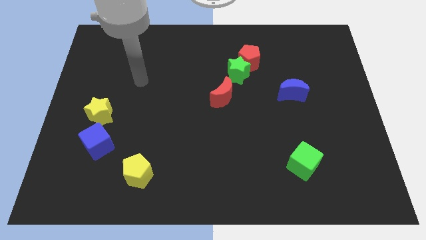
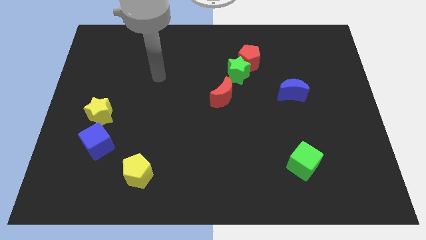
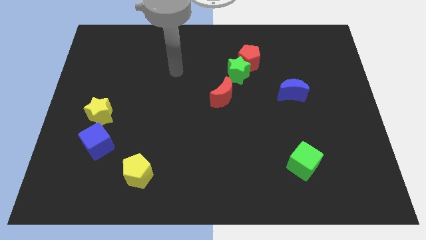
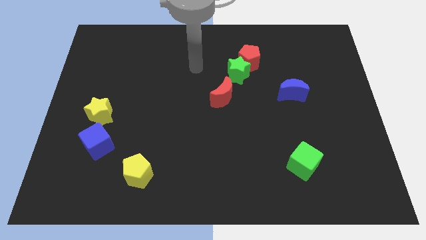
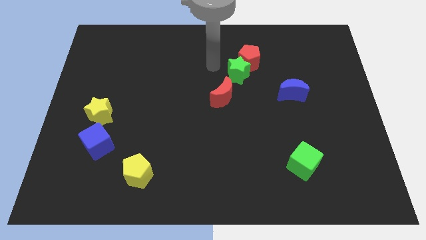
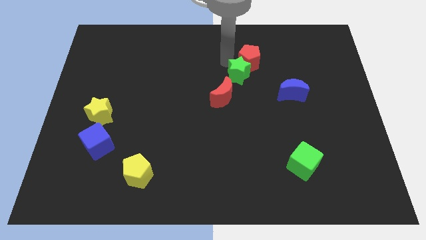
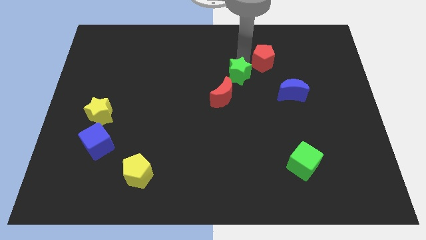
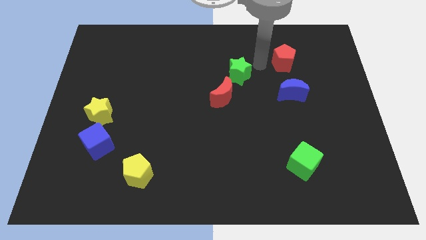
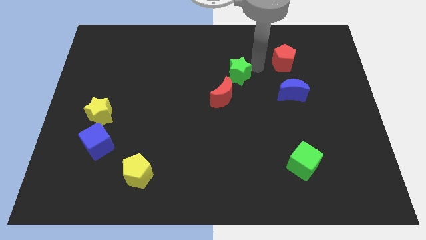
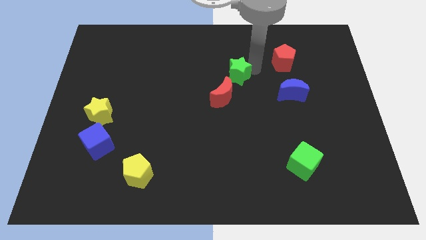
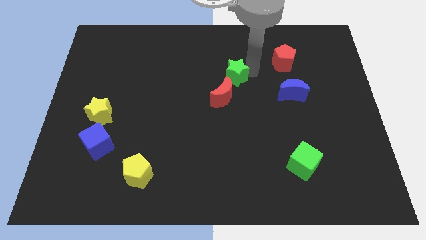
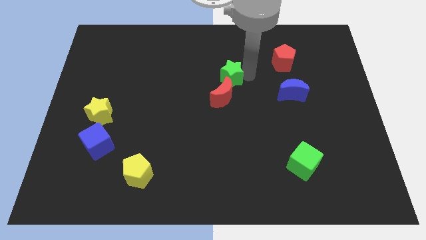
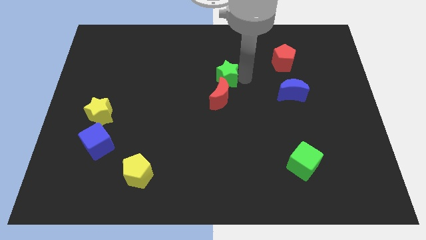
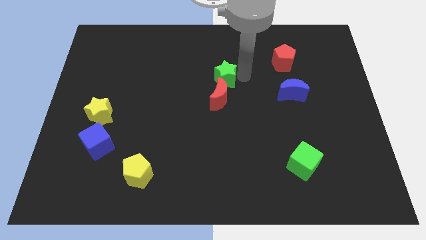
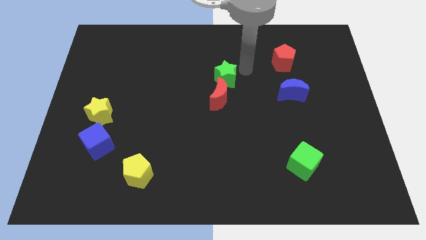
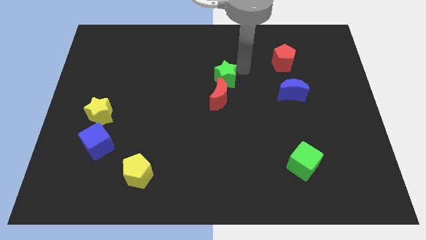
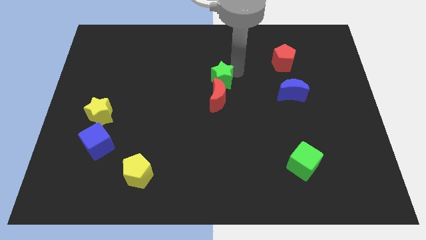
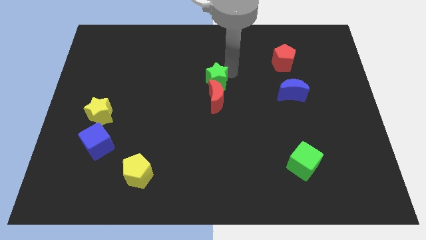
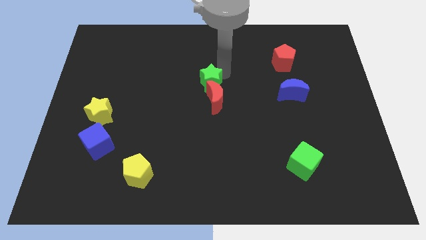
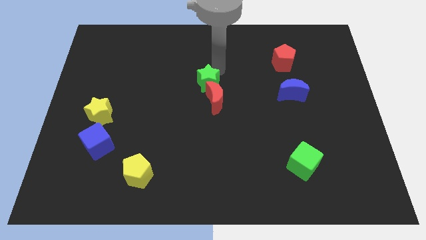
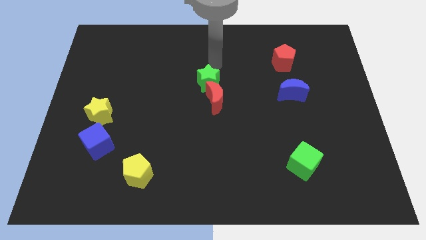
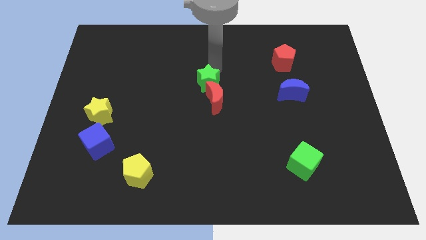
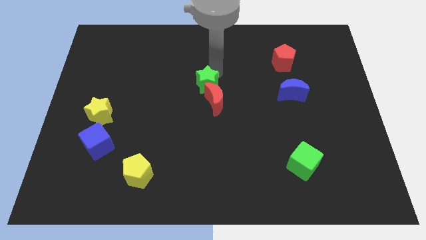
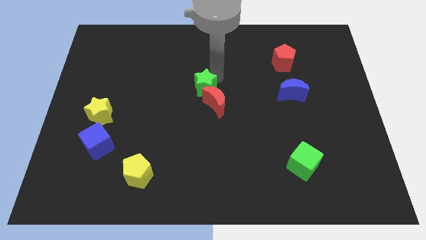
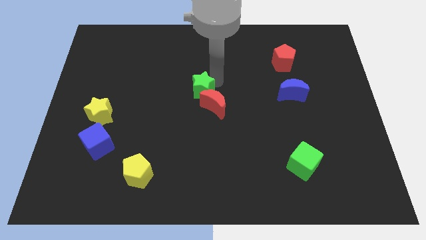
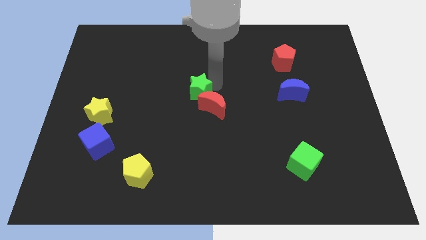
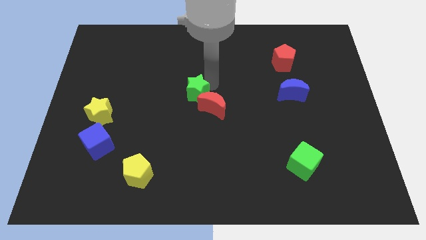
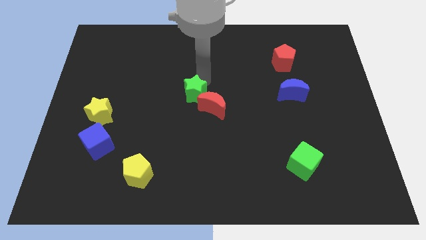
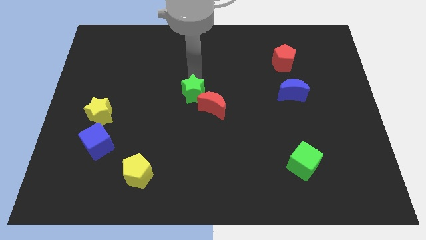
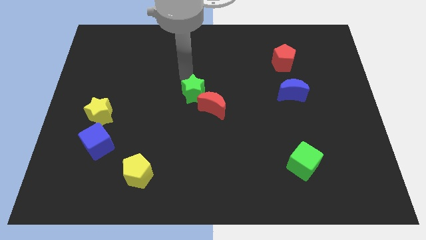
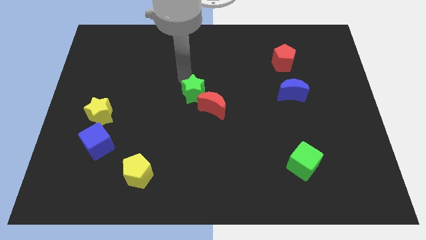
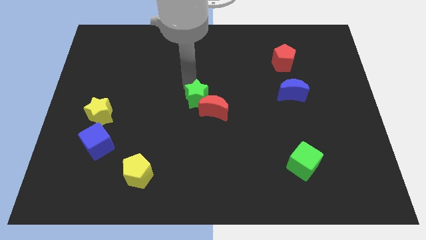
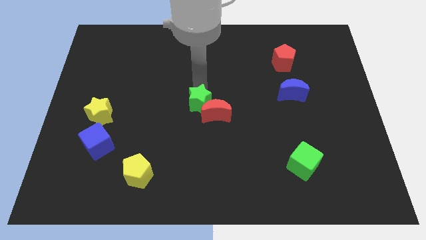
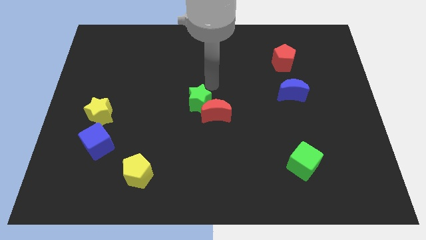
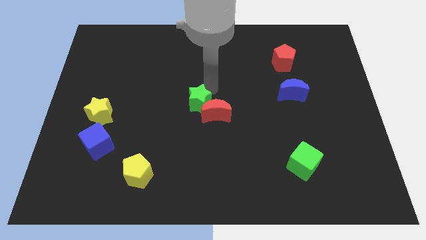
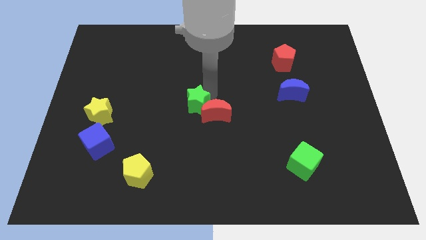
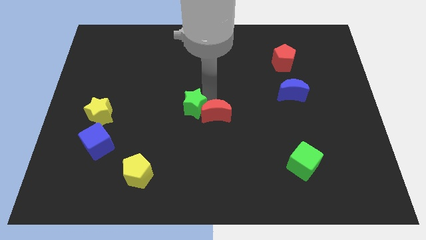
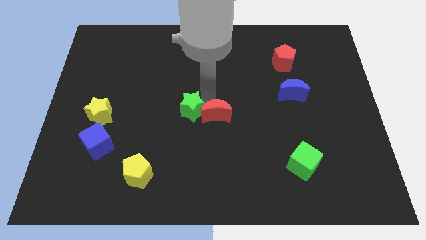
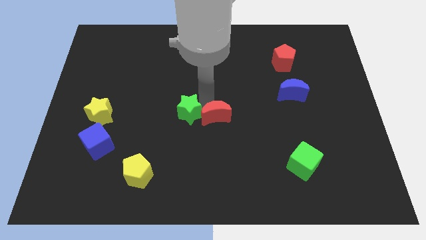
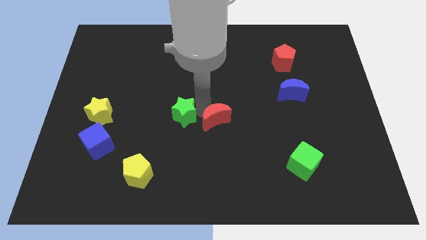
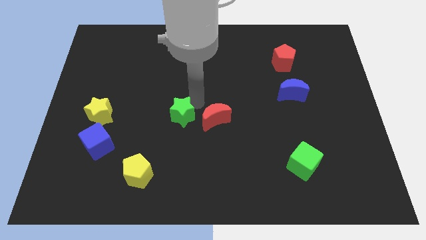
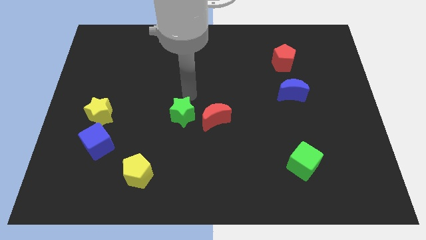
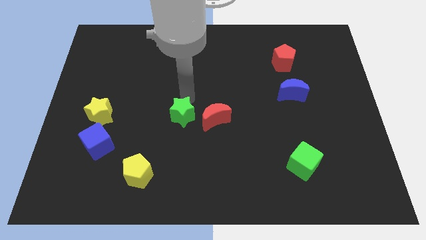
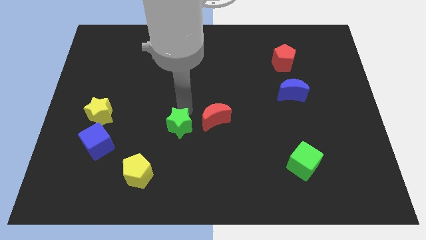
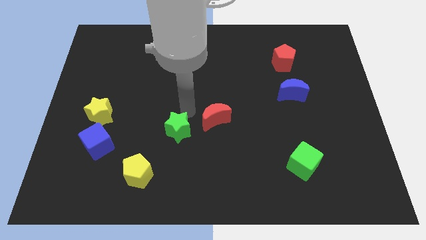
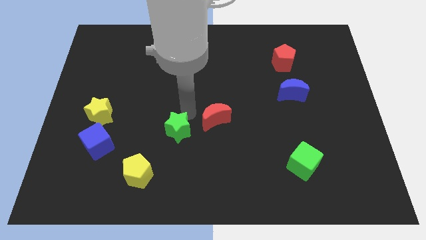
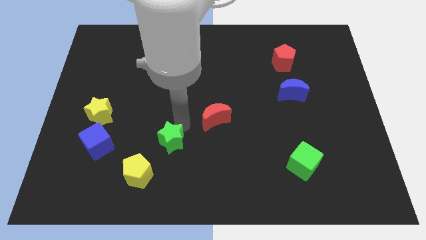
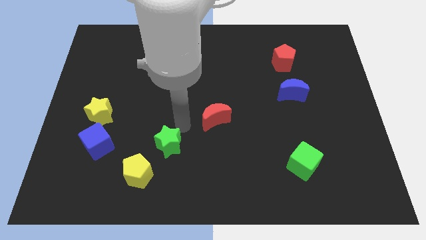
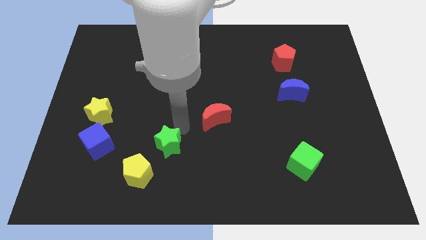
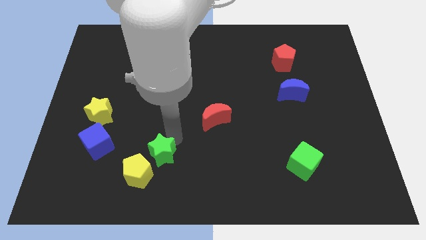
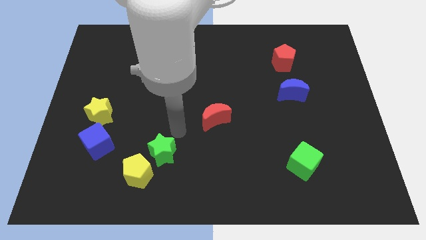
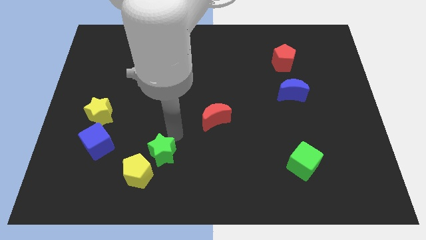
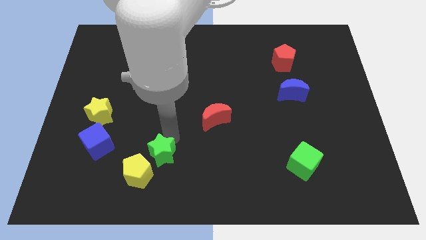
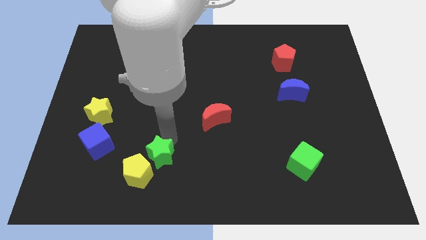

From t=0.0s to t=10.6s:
move the green star next to the yellow pentagon

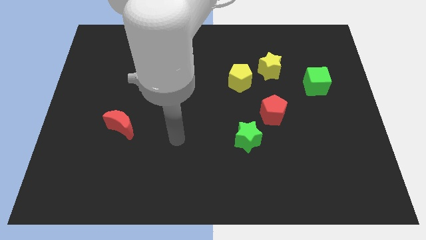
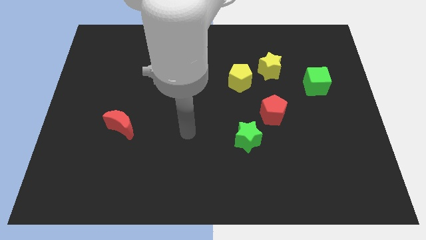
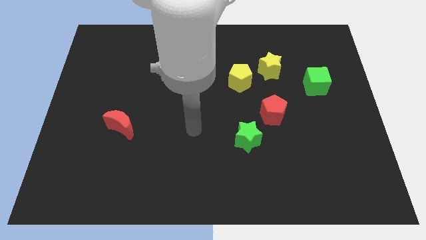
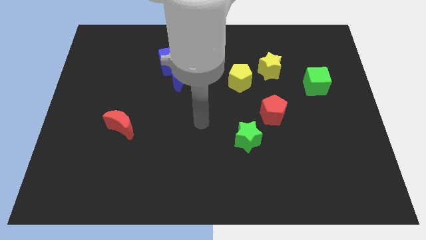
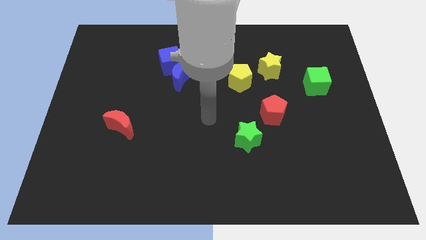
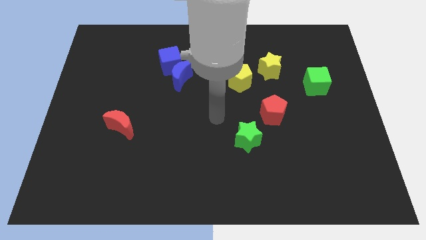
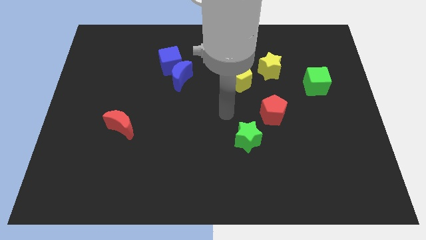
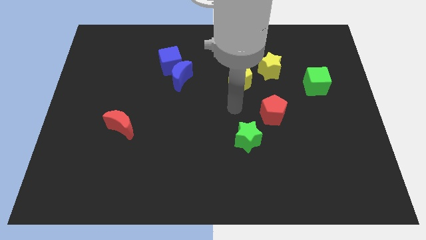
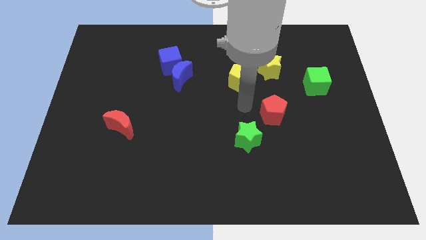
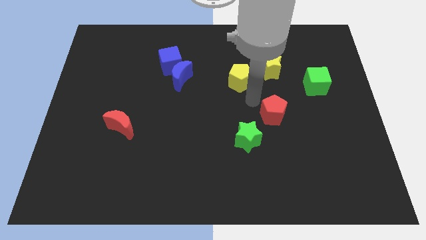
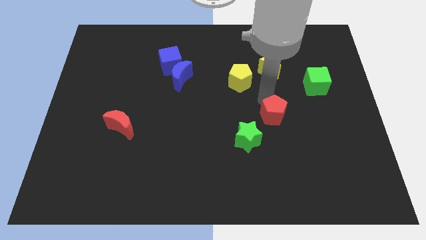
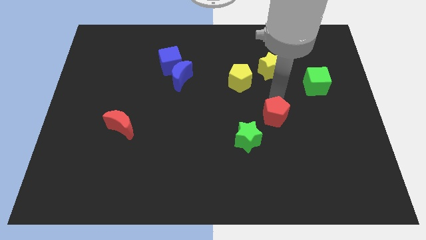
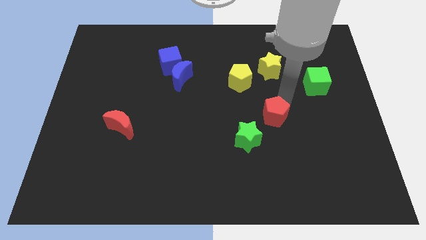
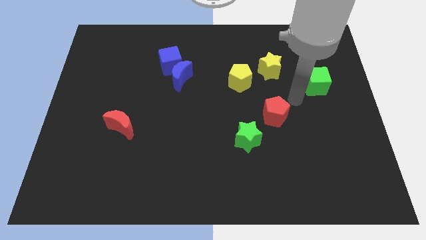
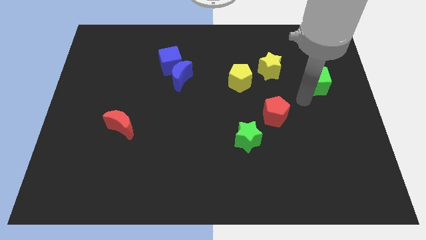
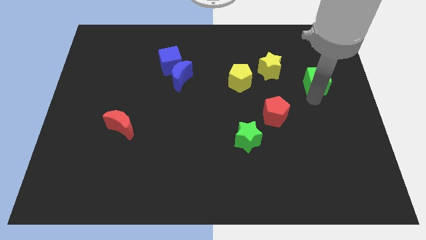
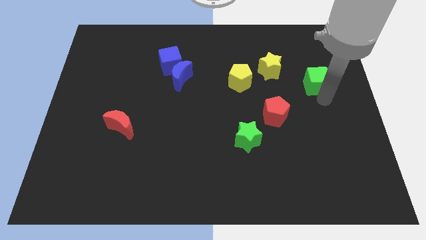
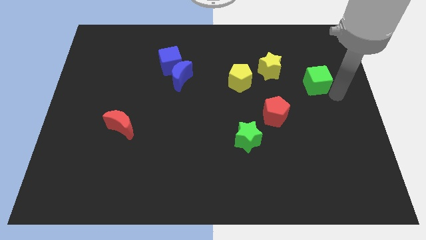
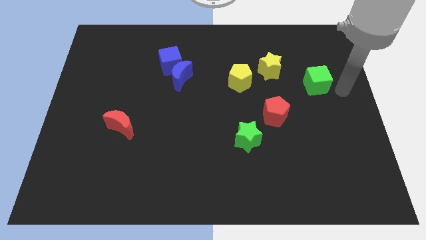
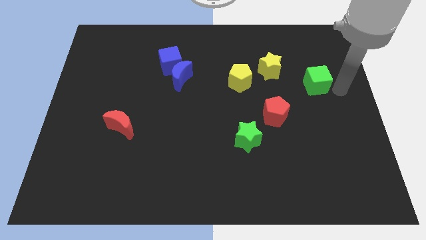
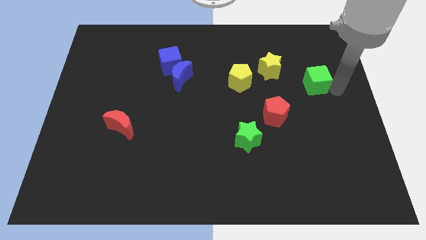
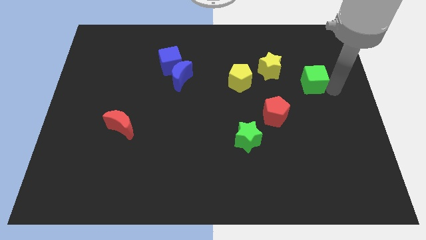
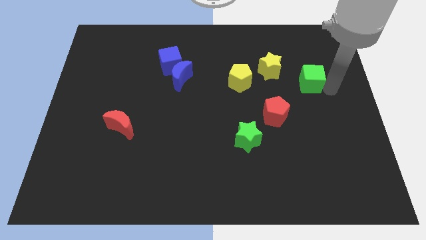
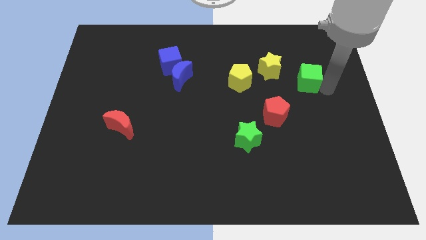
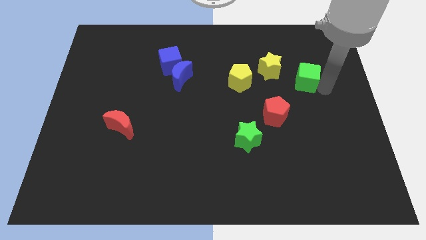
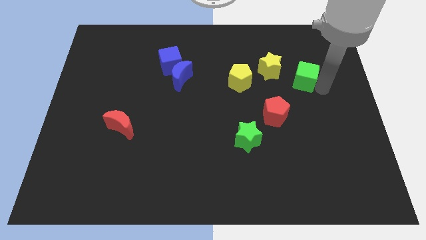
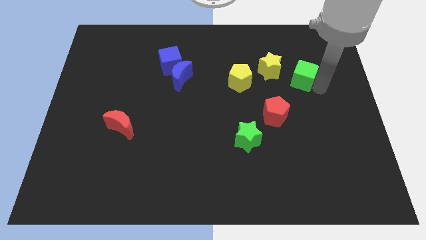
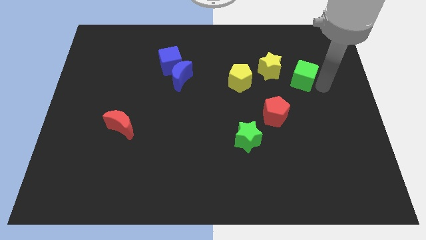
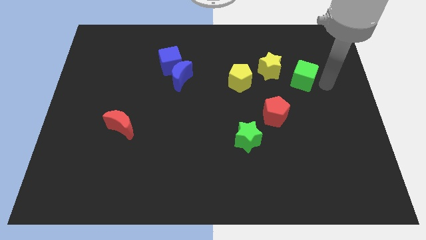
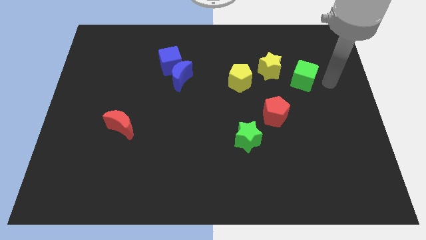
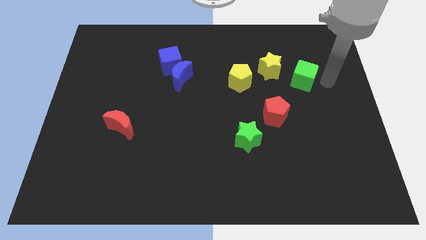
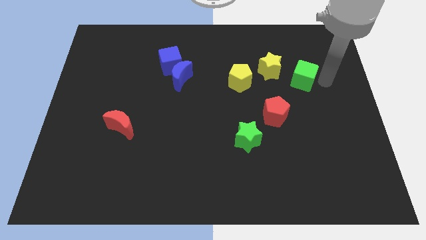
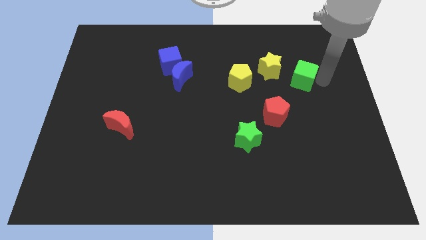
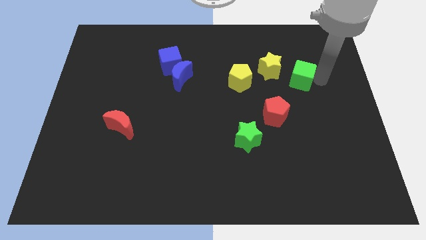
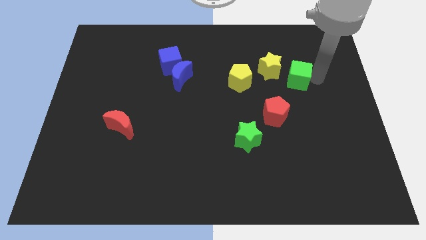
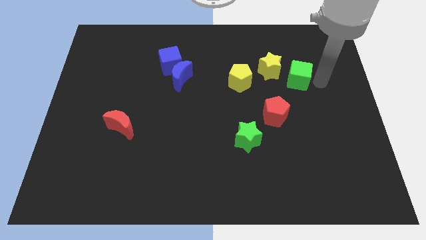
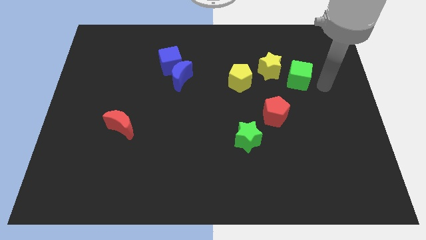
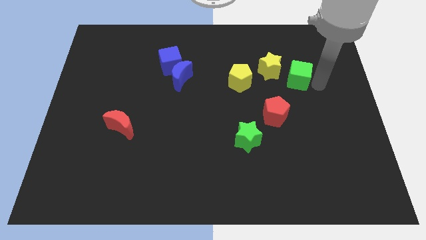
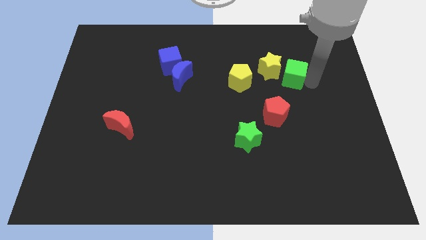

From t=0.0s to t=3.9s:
push the green cube next to the yellow star
